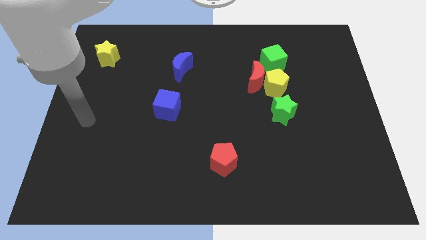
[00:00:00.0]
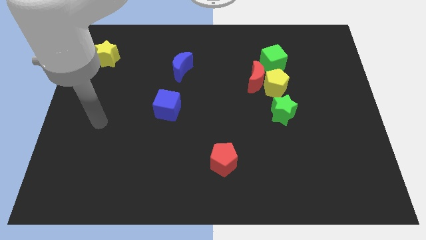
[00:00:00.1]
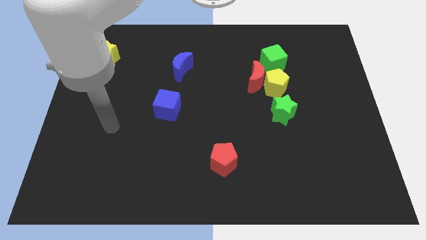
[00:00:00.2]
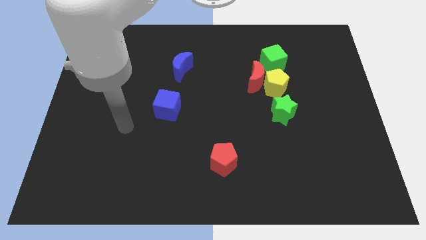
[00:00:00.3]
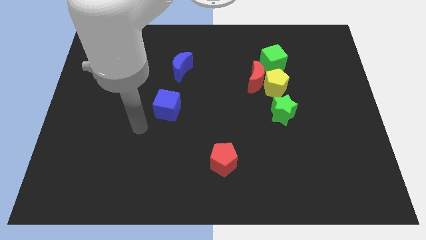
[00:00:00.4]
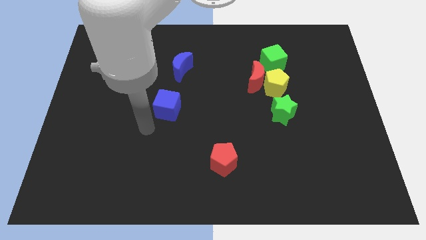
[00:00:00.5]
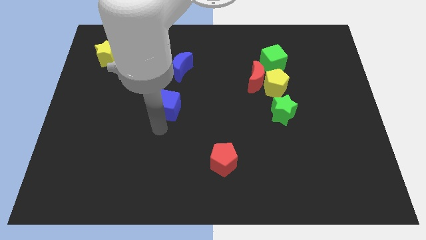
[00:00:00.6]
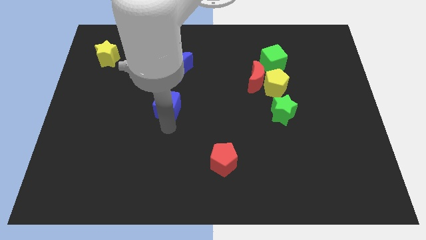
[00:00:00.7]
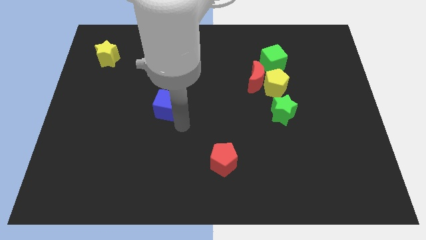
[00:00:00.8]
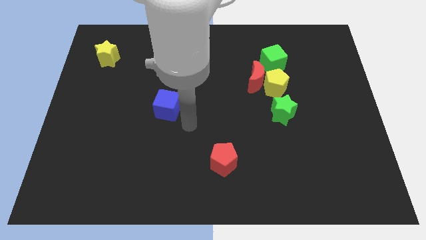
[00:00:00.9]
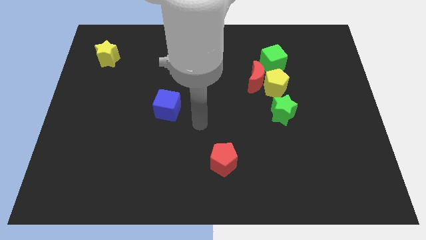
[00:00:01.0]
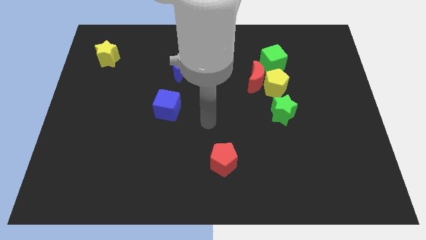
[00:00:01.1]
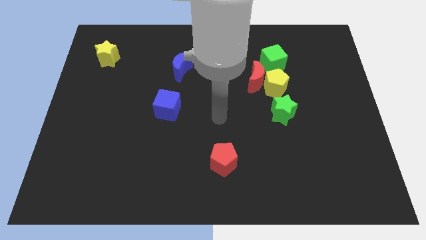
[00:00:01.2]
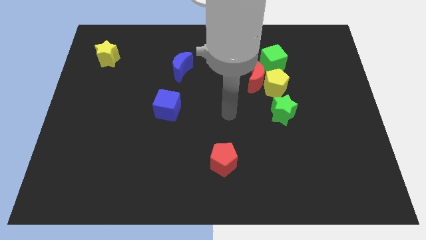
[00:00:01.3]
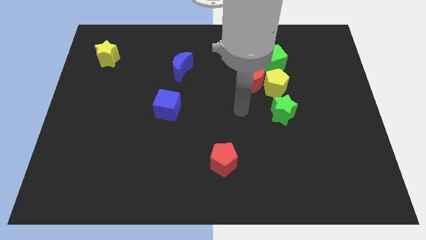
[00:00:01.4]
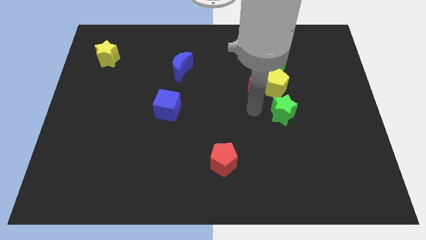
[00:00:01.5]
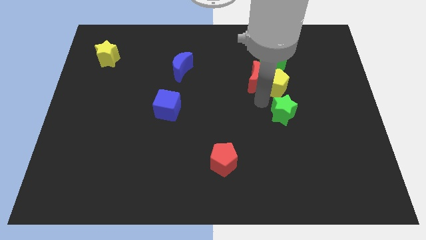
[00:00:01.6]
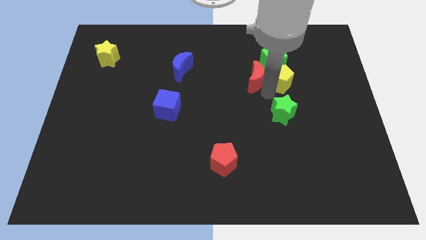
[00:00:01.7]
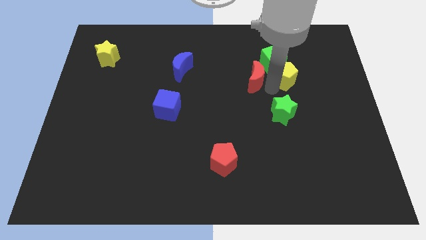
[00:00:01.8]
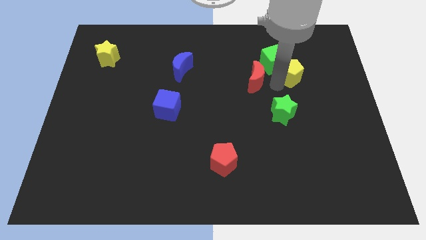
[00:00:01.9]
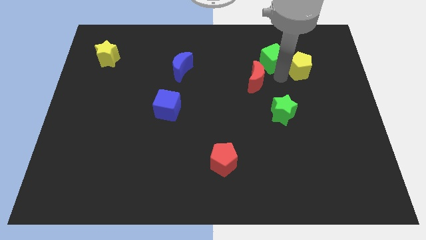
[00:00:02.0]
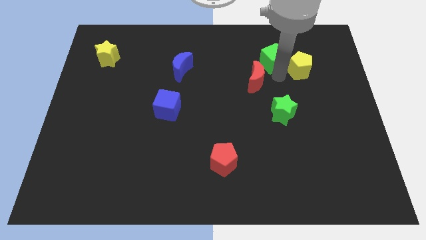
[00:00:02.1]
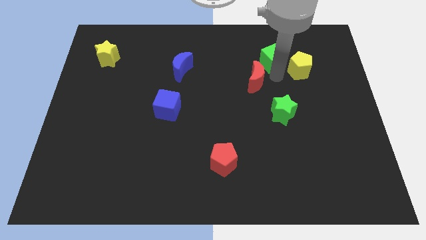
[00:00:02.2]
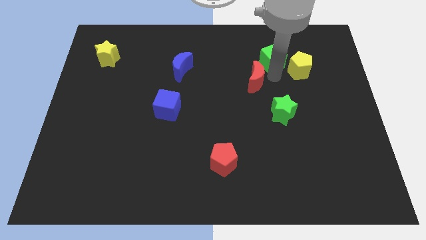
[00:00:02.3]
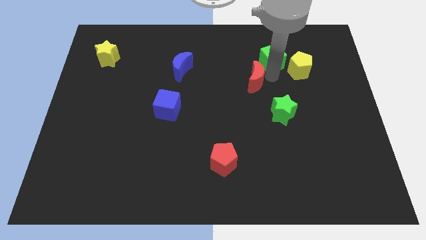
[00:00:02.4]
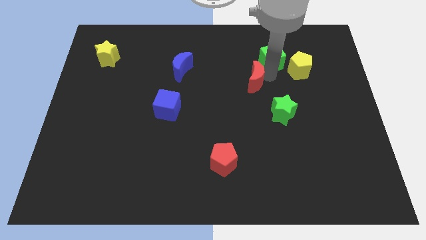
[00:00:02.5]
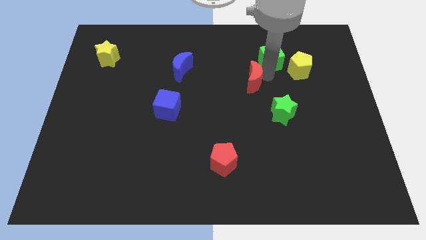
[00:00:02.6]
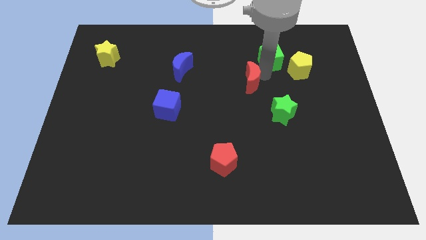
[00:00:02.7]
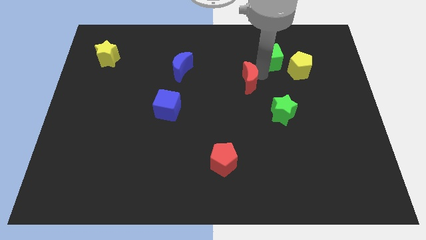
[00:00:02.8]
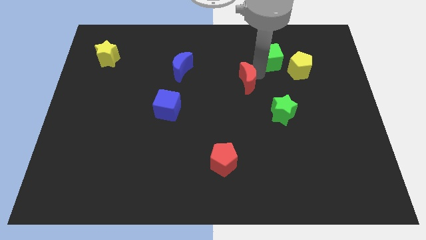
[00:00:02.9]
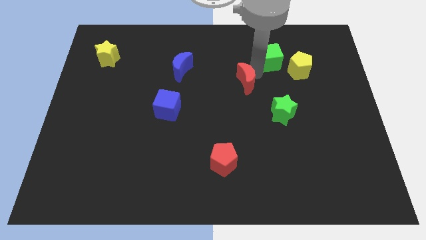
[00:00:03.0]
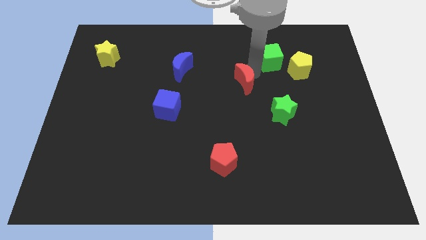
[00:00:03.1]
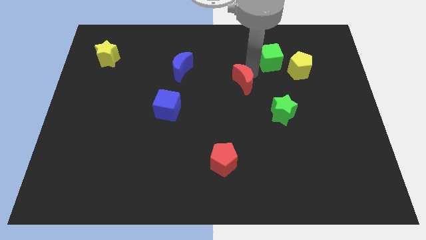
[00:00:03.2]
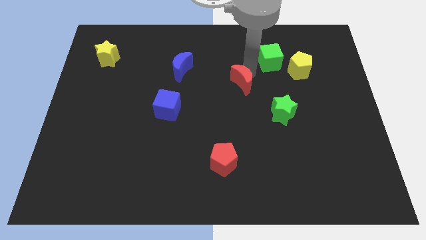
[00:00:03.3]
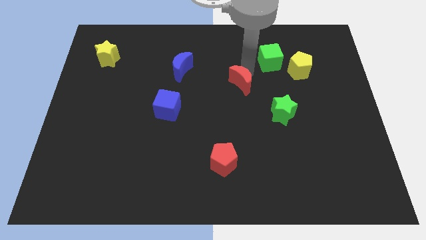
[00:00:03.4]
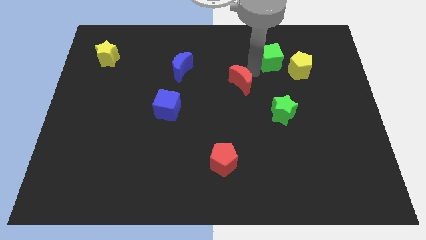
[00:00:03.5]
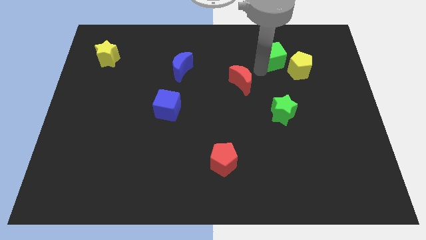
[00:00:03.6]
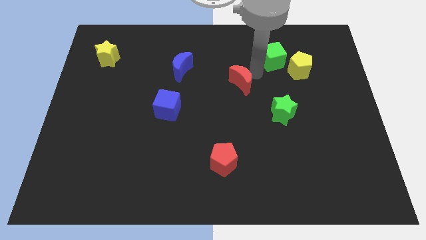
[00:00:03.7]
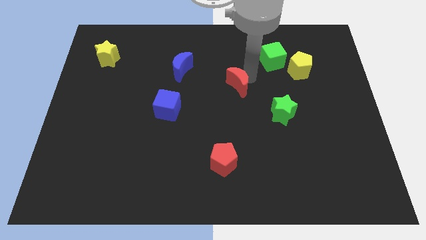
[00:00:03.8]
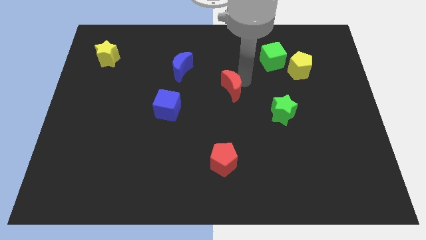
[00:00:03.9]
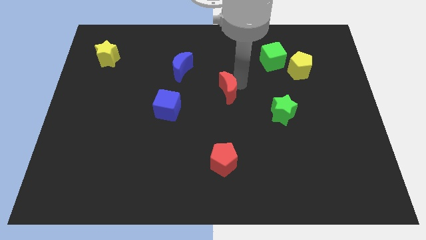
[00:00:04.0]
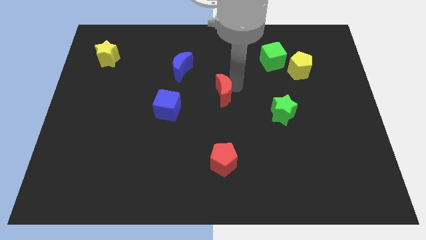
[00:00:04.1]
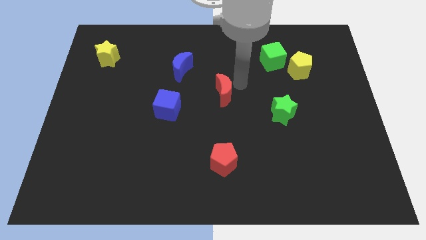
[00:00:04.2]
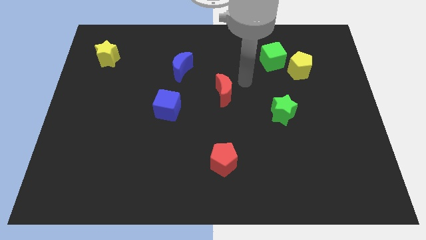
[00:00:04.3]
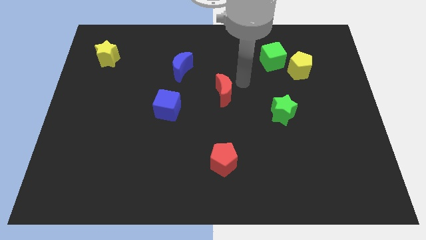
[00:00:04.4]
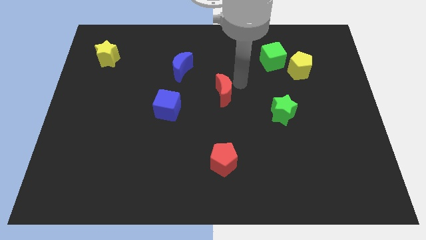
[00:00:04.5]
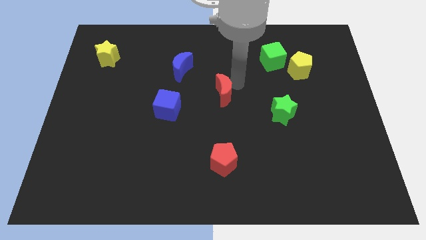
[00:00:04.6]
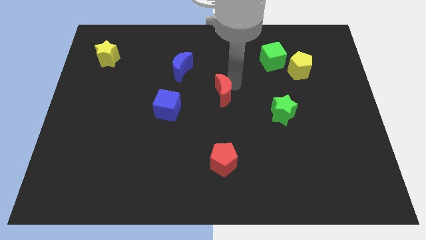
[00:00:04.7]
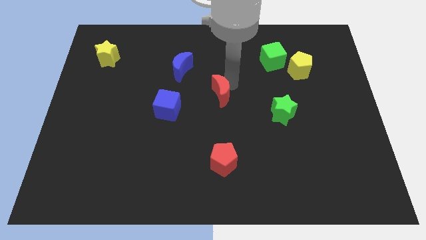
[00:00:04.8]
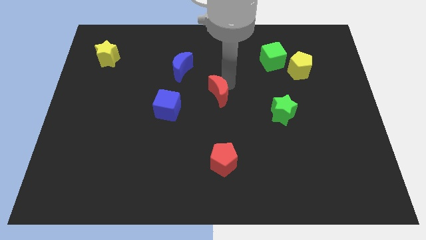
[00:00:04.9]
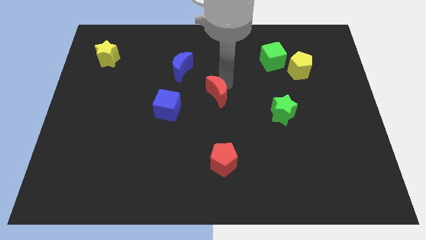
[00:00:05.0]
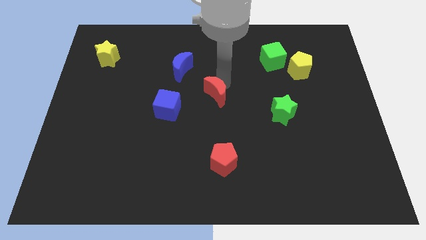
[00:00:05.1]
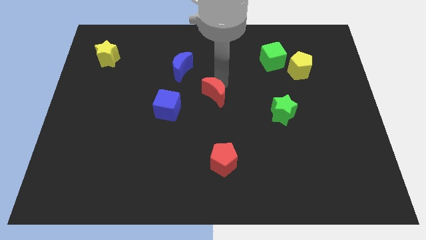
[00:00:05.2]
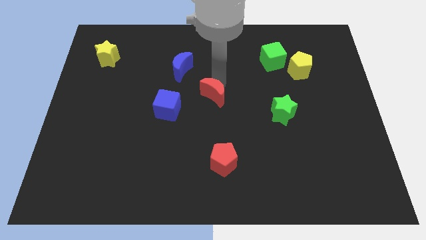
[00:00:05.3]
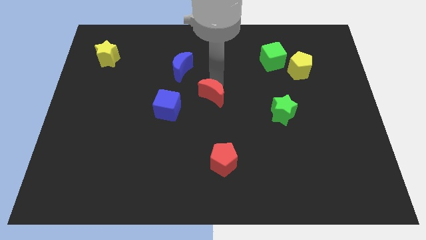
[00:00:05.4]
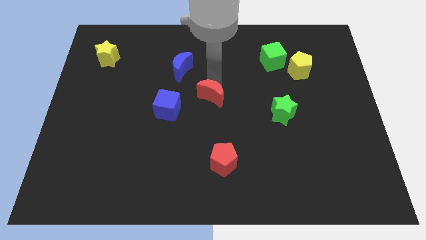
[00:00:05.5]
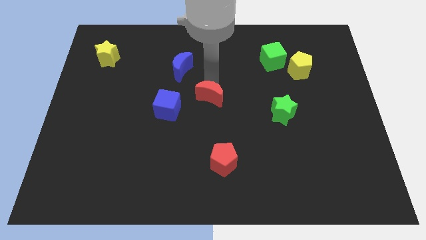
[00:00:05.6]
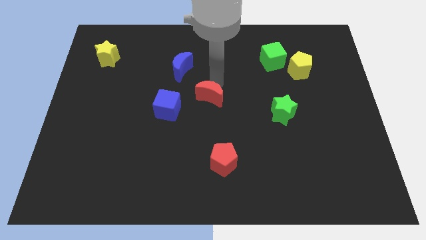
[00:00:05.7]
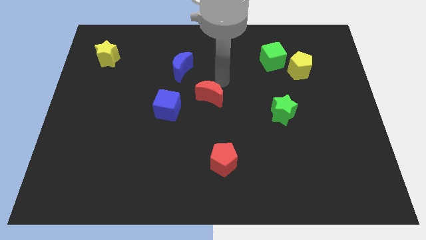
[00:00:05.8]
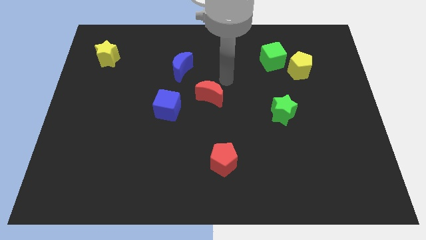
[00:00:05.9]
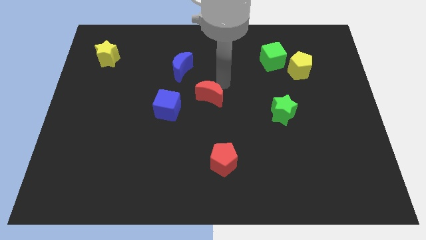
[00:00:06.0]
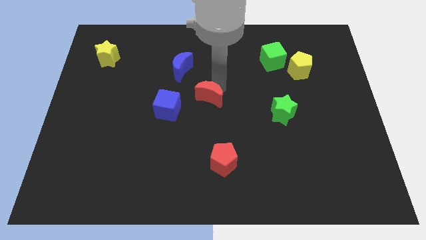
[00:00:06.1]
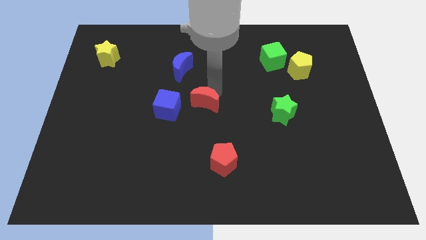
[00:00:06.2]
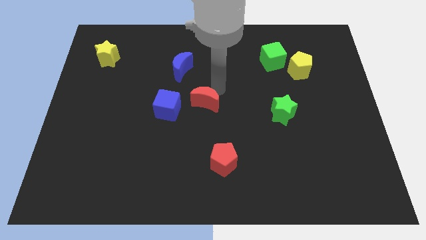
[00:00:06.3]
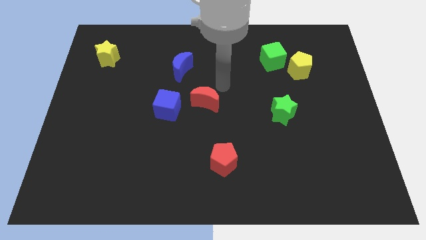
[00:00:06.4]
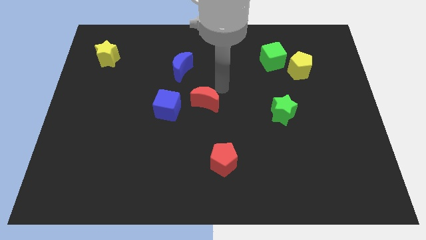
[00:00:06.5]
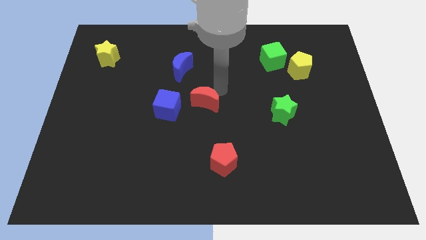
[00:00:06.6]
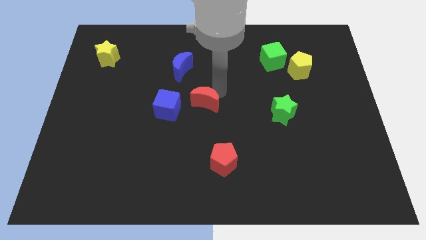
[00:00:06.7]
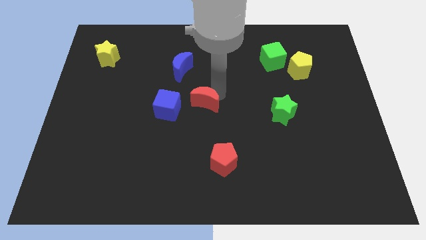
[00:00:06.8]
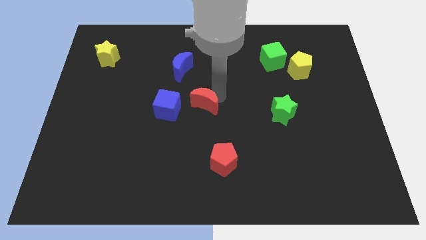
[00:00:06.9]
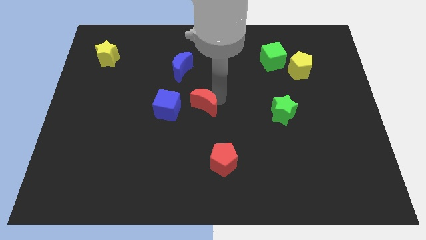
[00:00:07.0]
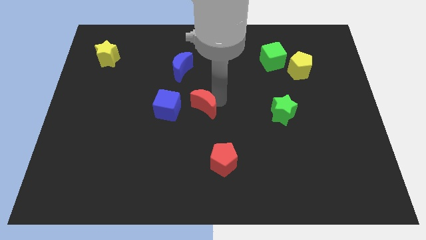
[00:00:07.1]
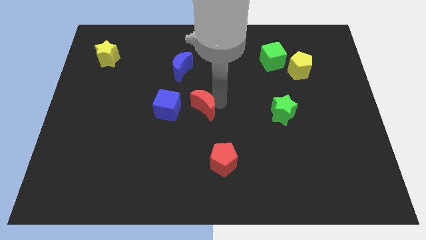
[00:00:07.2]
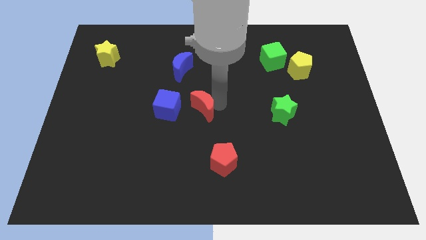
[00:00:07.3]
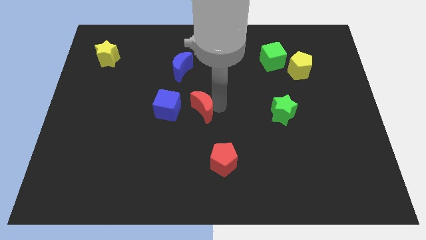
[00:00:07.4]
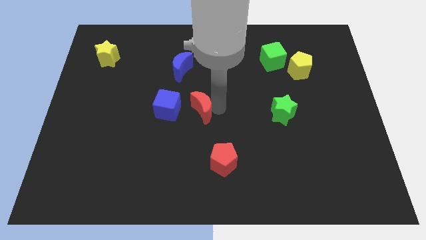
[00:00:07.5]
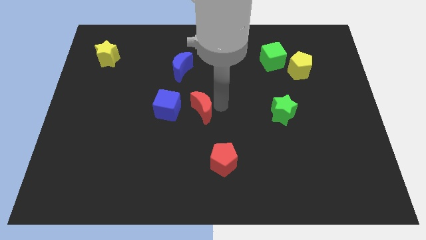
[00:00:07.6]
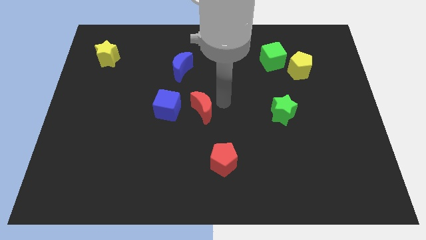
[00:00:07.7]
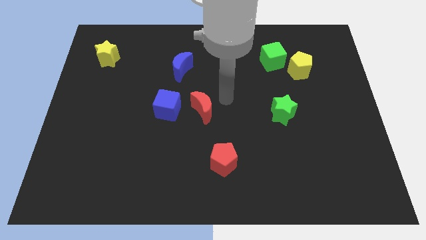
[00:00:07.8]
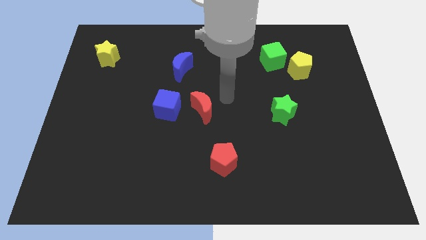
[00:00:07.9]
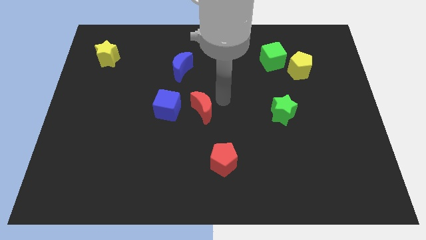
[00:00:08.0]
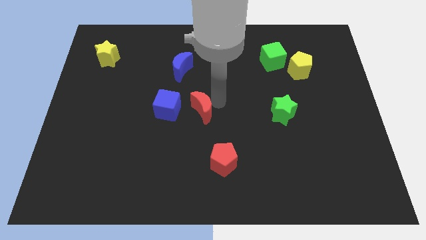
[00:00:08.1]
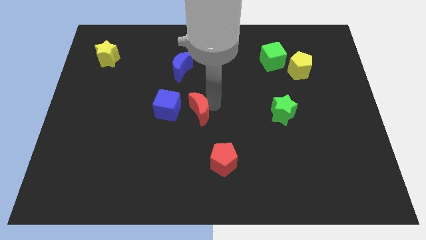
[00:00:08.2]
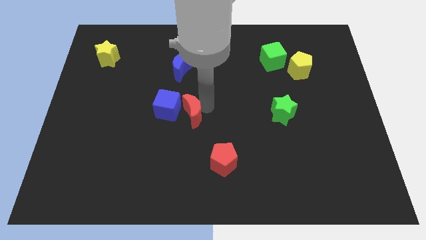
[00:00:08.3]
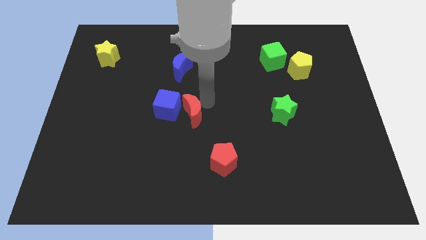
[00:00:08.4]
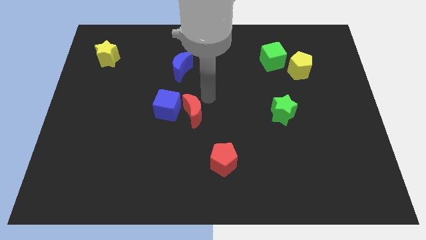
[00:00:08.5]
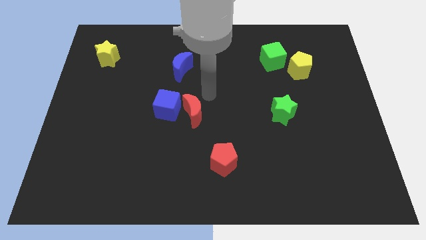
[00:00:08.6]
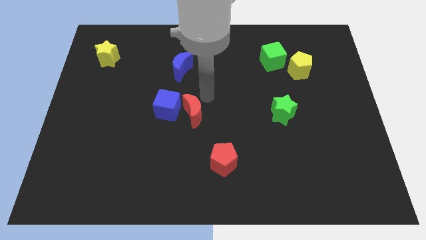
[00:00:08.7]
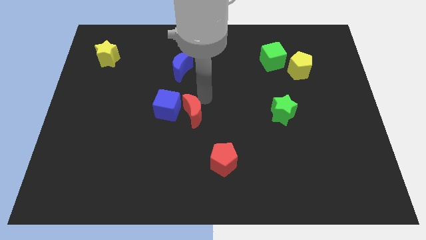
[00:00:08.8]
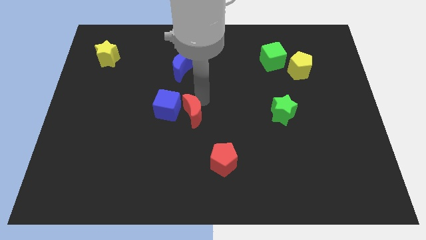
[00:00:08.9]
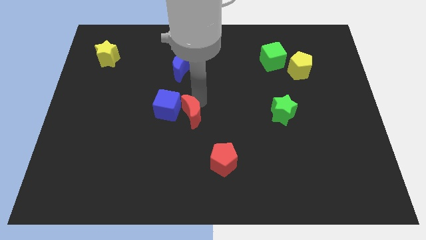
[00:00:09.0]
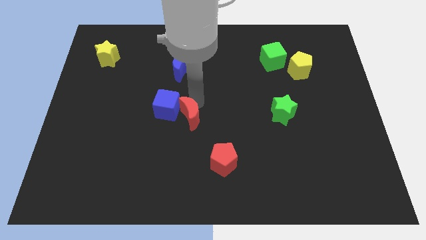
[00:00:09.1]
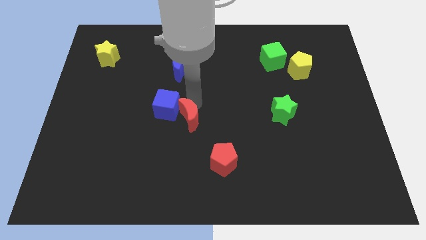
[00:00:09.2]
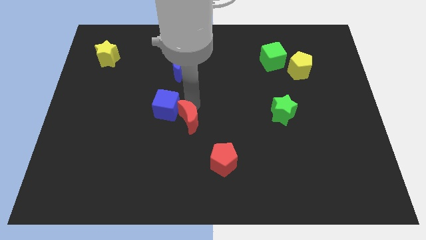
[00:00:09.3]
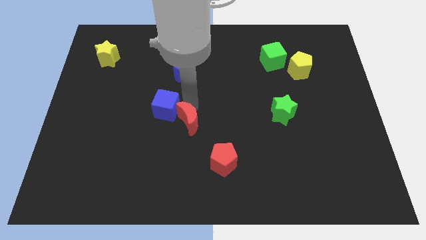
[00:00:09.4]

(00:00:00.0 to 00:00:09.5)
move the red moon downwards and then left
